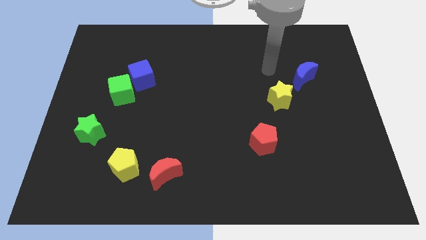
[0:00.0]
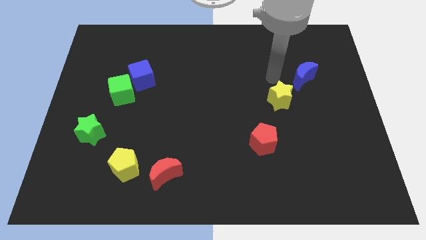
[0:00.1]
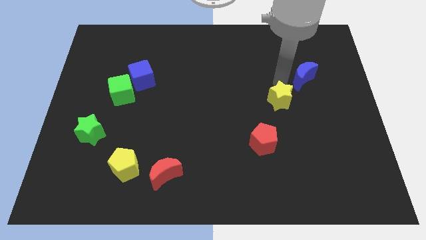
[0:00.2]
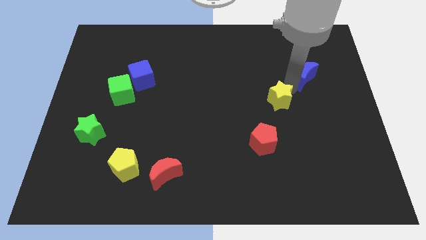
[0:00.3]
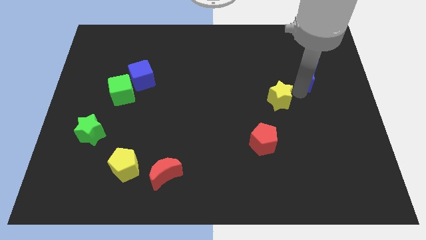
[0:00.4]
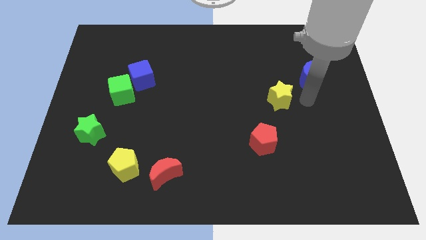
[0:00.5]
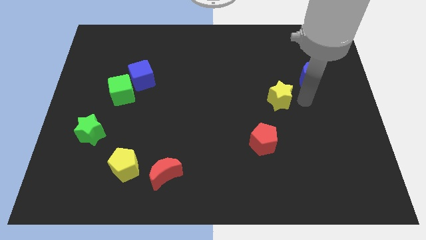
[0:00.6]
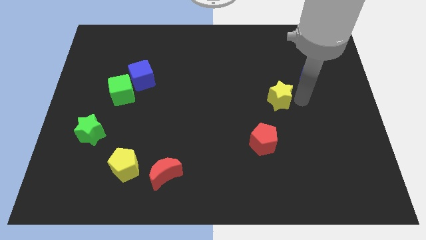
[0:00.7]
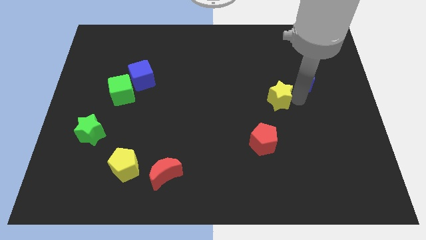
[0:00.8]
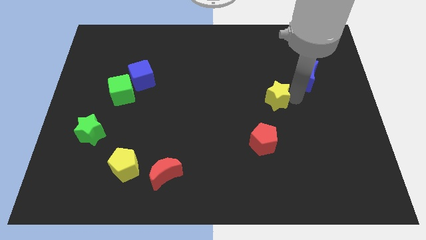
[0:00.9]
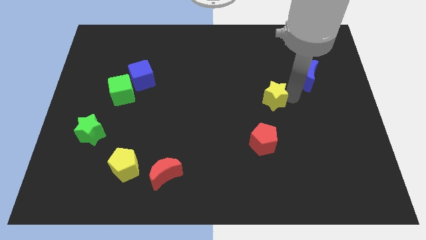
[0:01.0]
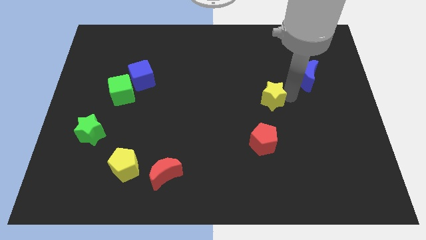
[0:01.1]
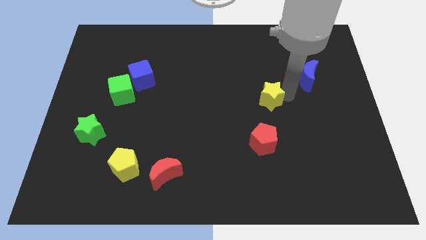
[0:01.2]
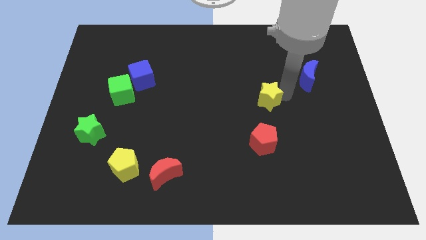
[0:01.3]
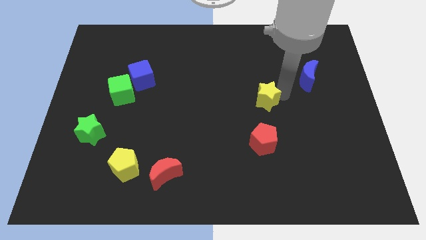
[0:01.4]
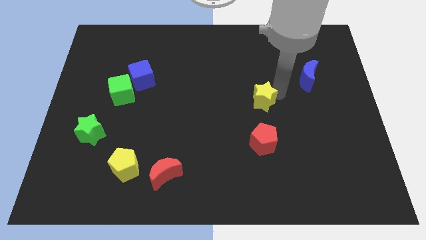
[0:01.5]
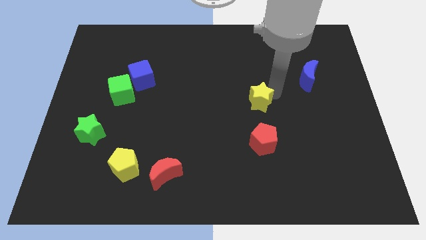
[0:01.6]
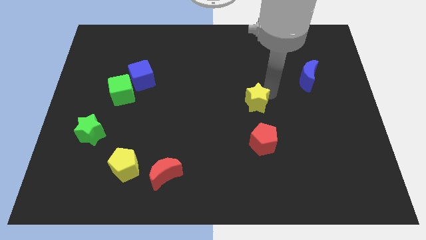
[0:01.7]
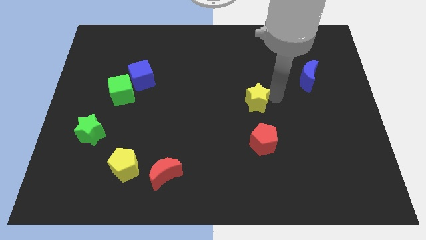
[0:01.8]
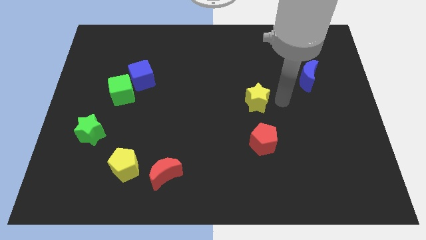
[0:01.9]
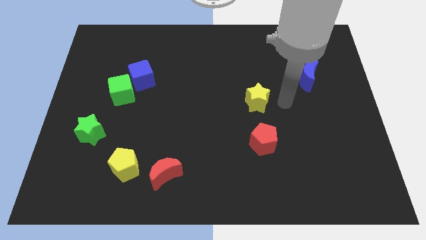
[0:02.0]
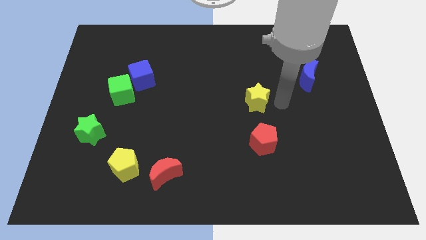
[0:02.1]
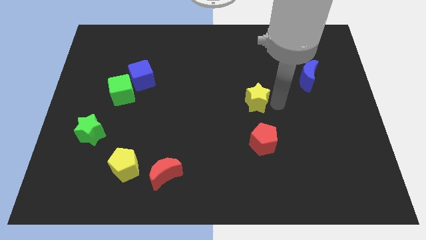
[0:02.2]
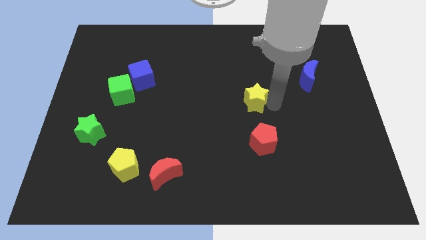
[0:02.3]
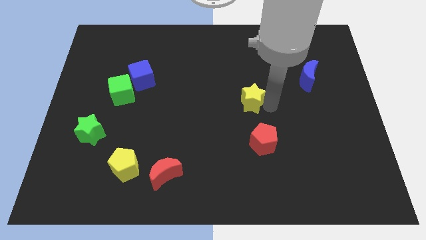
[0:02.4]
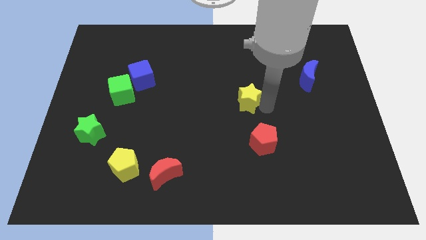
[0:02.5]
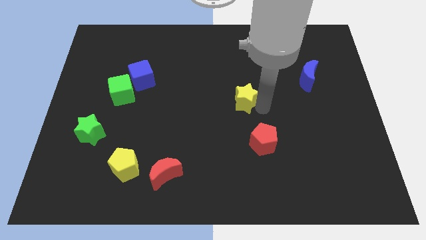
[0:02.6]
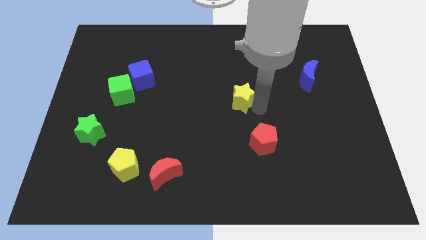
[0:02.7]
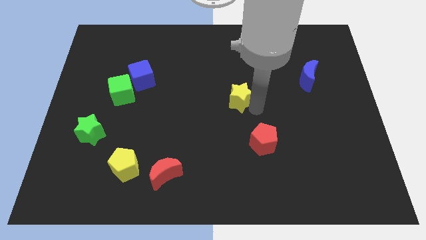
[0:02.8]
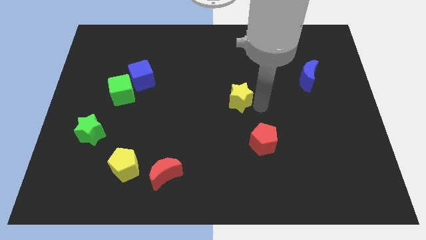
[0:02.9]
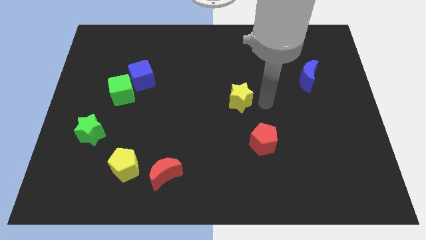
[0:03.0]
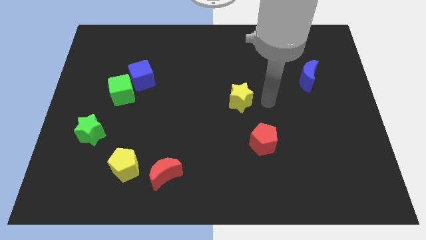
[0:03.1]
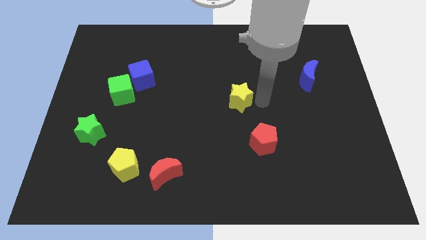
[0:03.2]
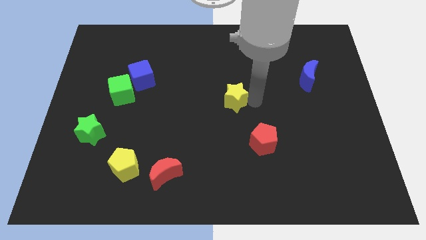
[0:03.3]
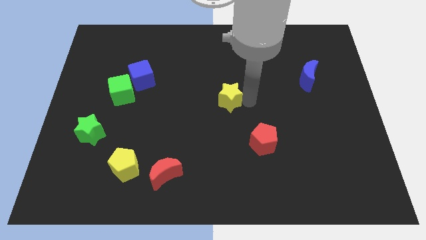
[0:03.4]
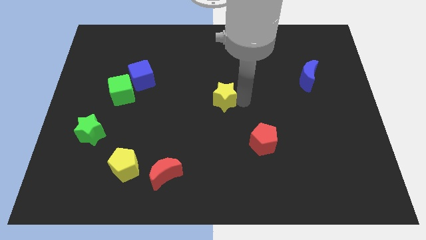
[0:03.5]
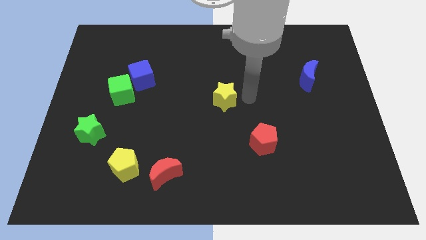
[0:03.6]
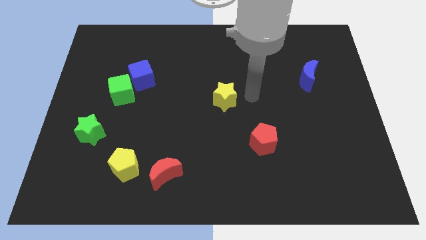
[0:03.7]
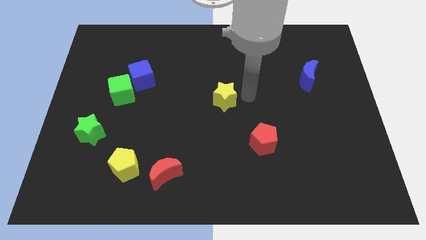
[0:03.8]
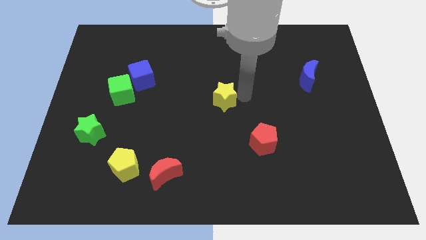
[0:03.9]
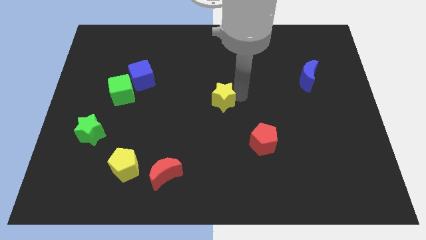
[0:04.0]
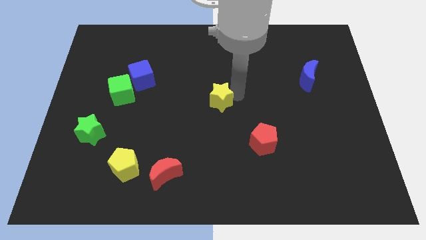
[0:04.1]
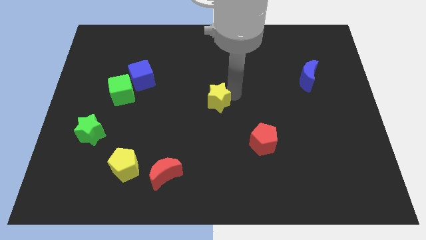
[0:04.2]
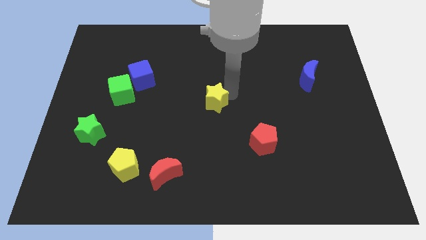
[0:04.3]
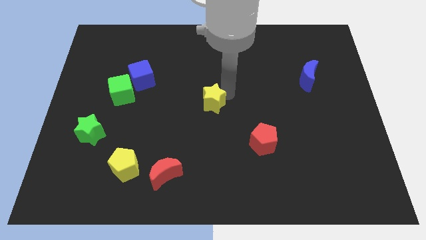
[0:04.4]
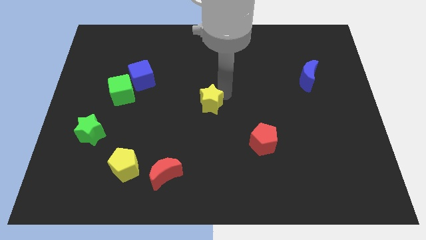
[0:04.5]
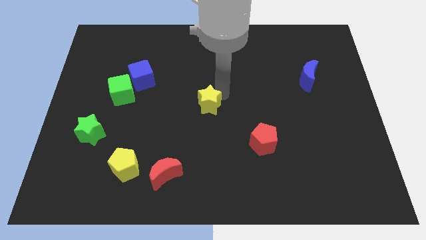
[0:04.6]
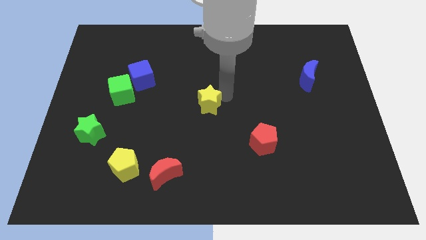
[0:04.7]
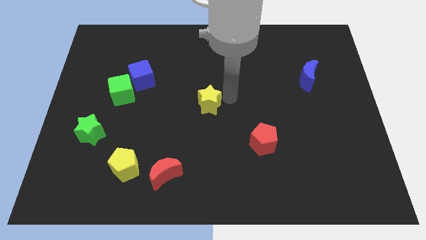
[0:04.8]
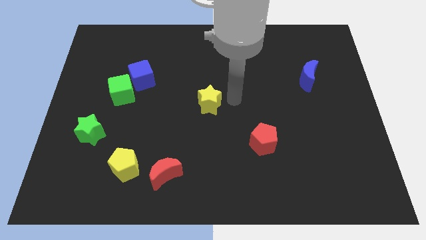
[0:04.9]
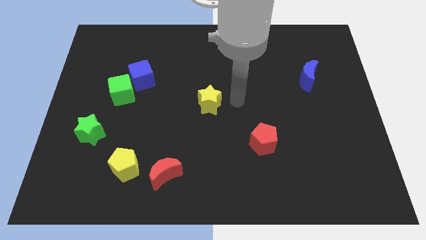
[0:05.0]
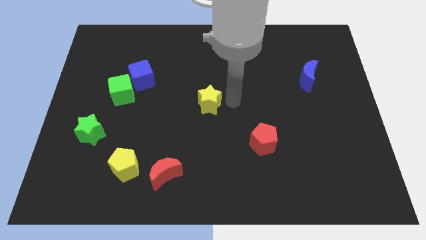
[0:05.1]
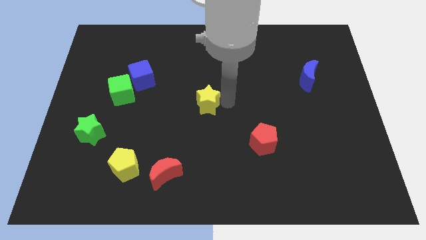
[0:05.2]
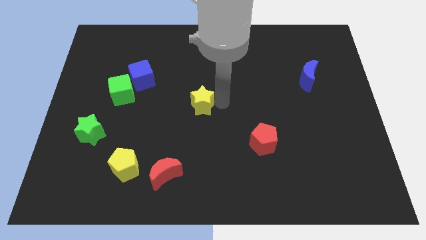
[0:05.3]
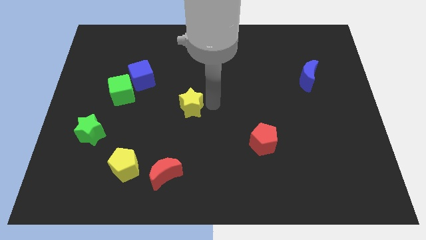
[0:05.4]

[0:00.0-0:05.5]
move the yellow star left

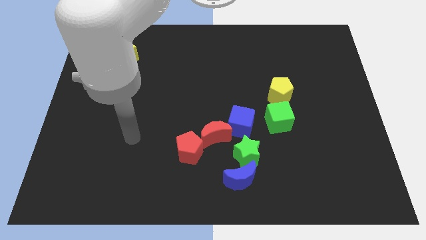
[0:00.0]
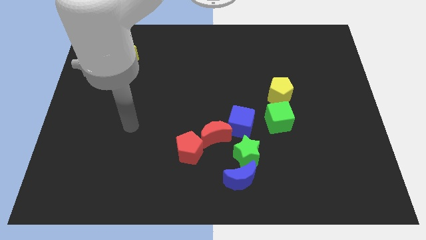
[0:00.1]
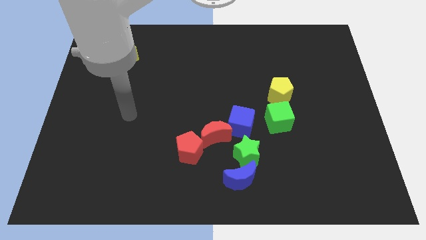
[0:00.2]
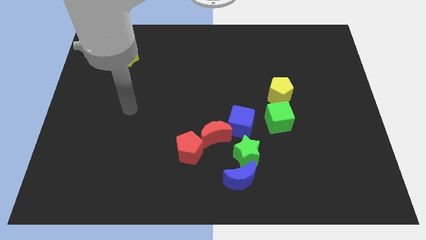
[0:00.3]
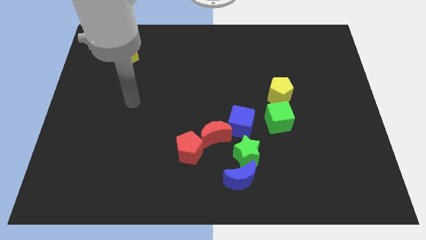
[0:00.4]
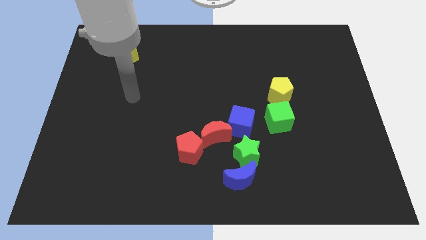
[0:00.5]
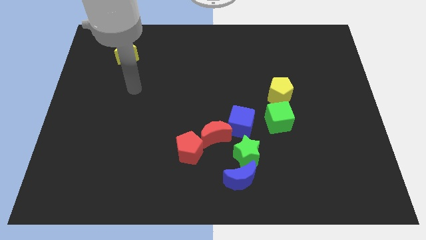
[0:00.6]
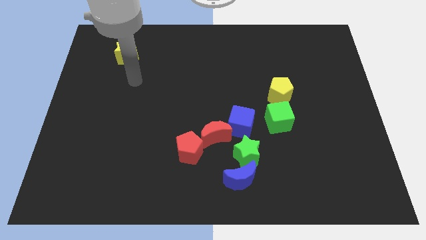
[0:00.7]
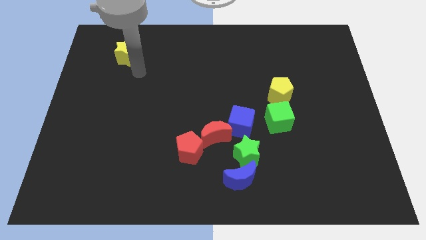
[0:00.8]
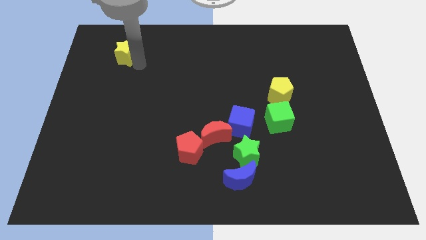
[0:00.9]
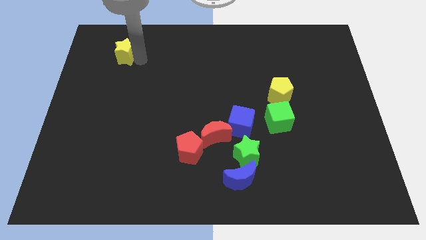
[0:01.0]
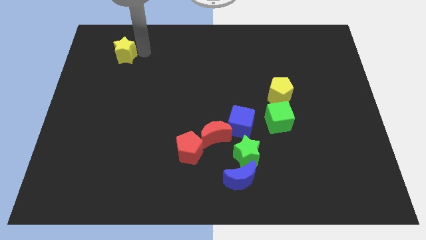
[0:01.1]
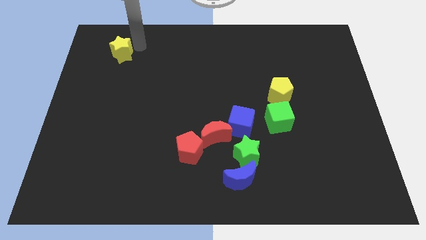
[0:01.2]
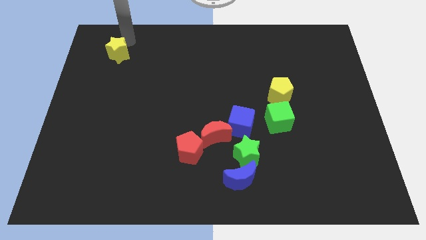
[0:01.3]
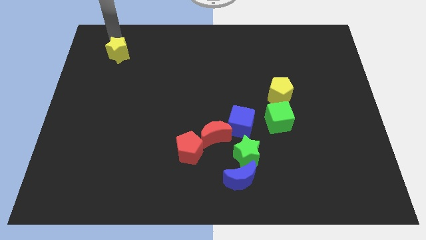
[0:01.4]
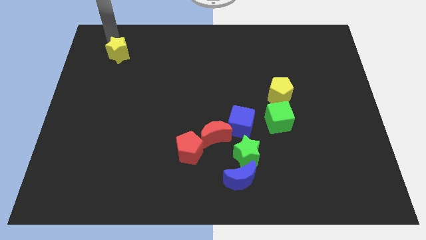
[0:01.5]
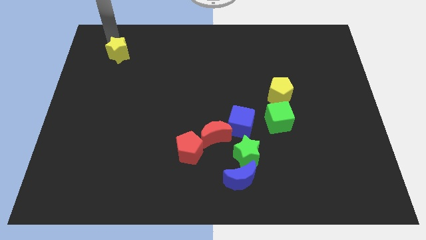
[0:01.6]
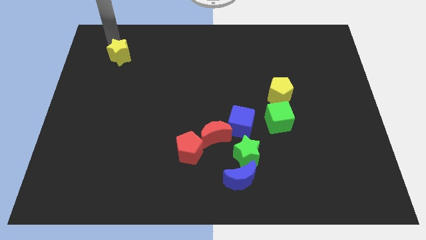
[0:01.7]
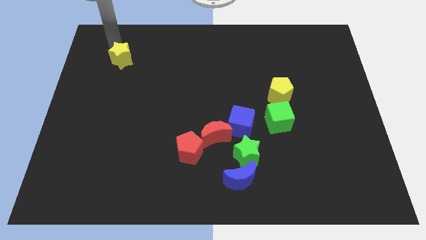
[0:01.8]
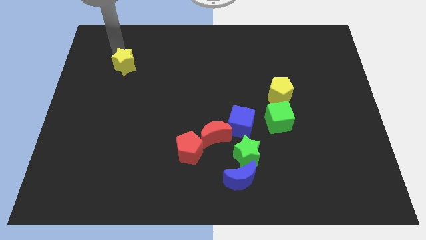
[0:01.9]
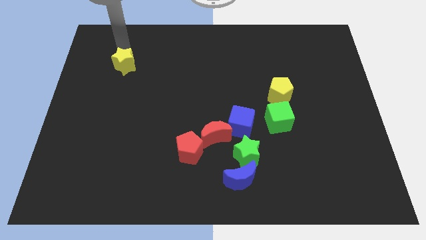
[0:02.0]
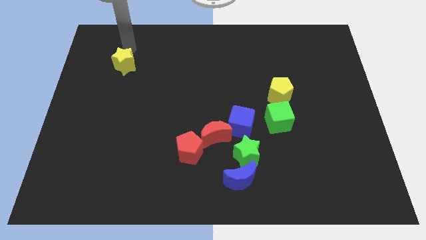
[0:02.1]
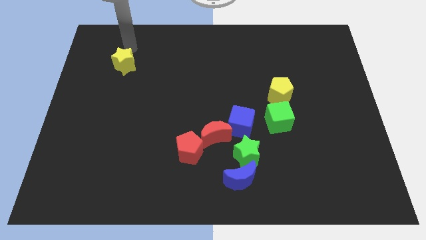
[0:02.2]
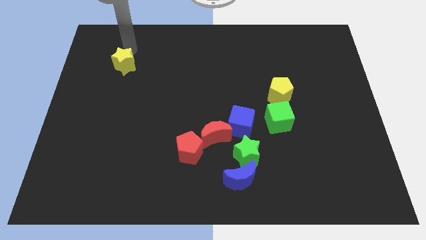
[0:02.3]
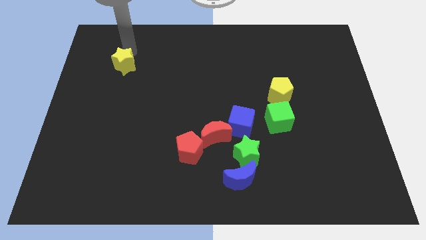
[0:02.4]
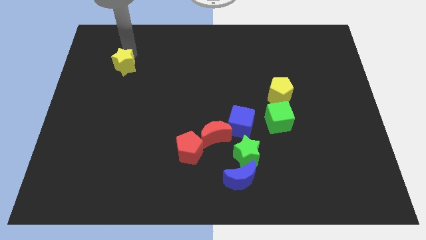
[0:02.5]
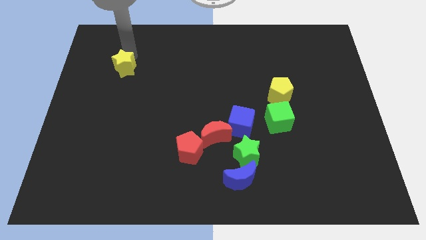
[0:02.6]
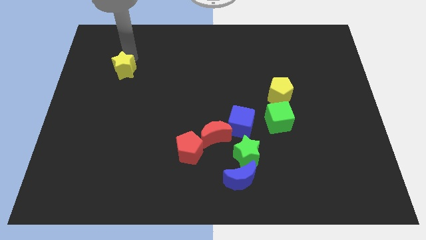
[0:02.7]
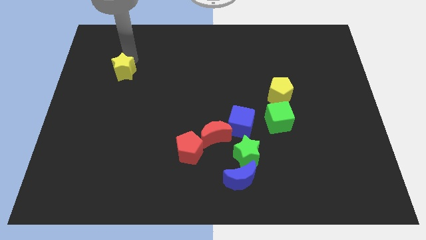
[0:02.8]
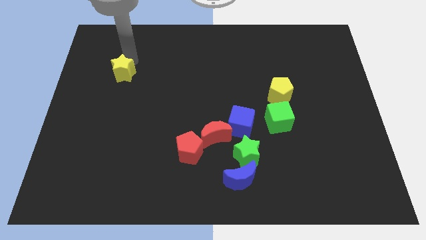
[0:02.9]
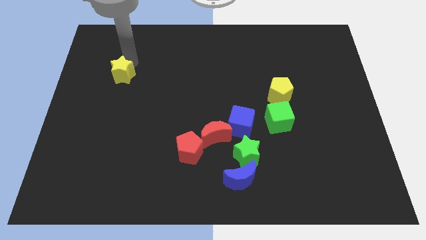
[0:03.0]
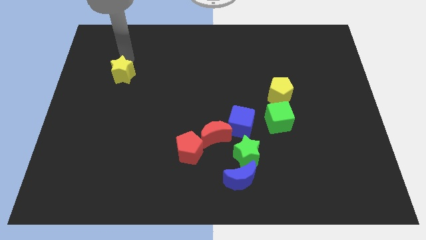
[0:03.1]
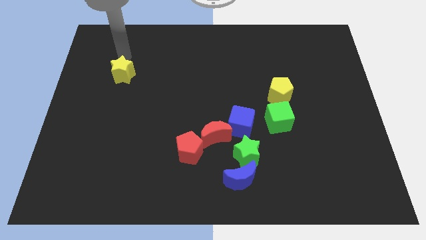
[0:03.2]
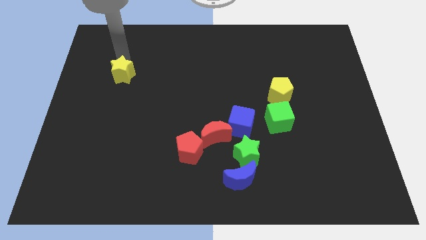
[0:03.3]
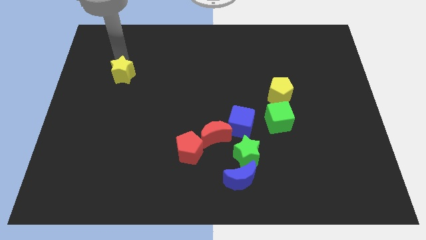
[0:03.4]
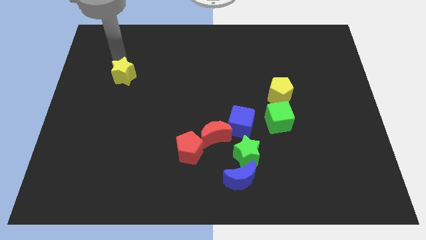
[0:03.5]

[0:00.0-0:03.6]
slide the yellow star a bit down
